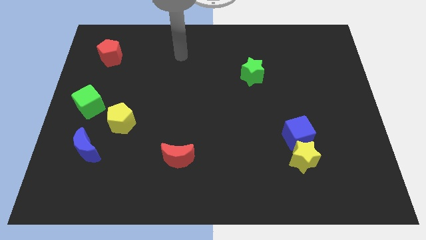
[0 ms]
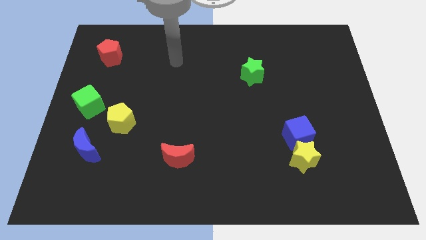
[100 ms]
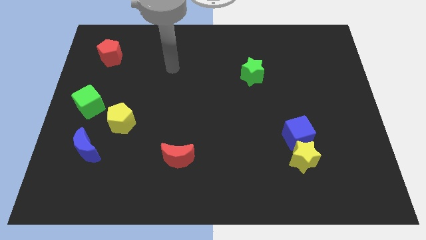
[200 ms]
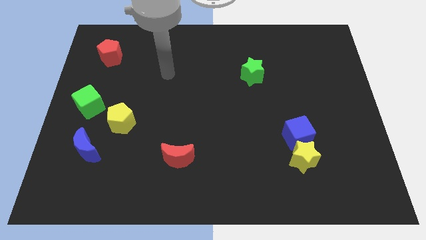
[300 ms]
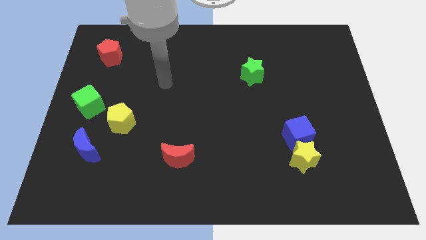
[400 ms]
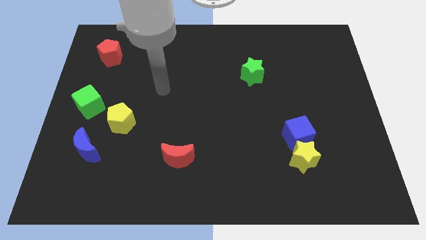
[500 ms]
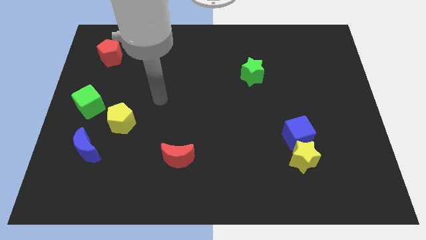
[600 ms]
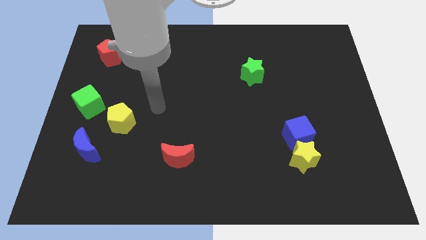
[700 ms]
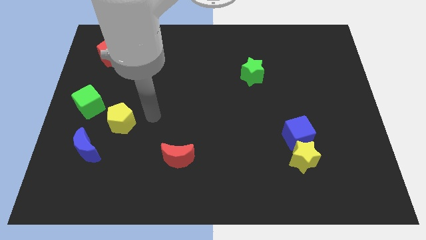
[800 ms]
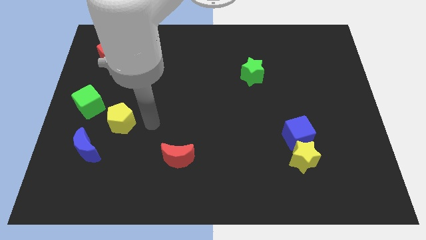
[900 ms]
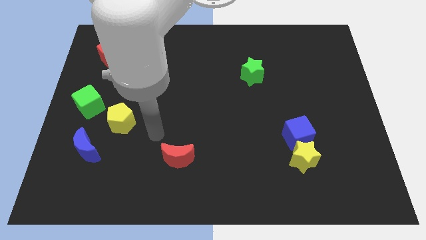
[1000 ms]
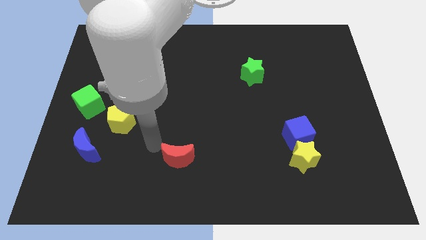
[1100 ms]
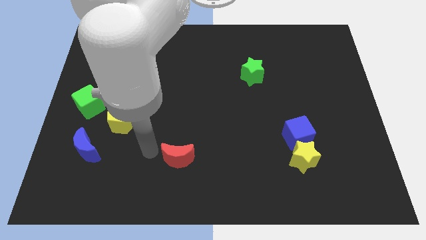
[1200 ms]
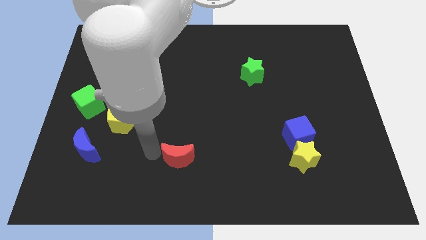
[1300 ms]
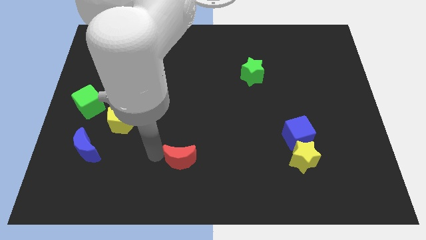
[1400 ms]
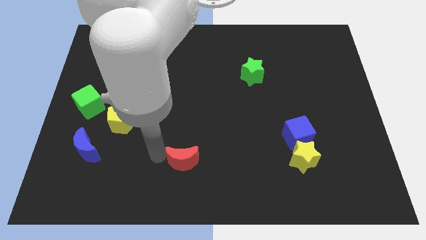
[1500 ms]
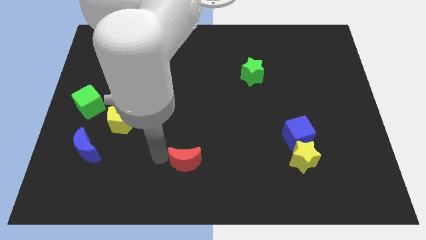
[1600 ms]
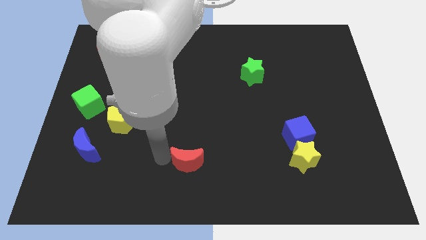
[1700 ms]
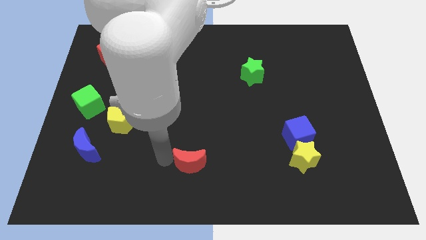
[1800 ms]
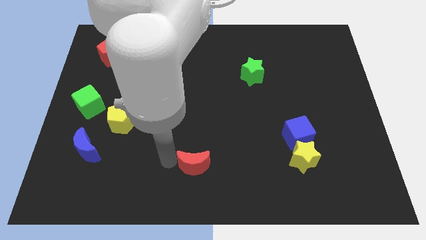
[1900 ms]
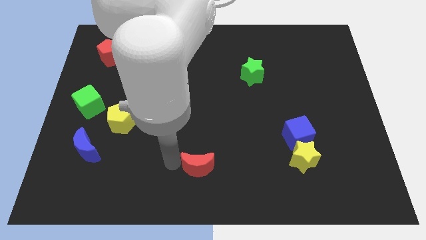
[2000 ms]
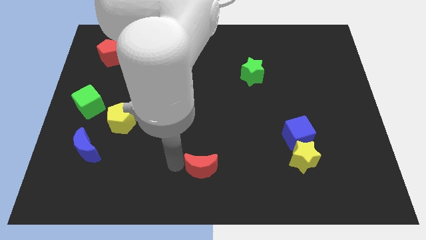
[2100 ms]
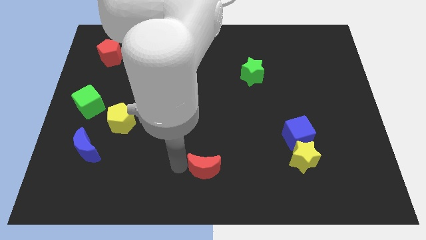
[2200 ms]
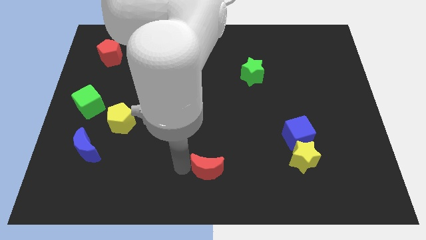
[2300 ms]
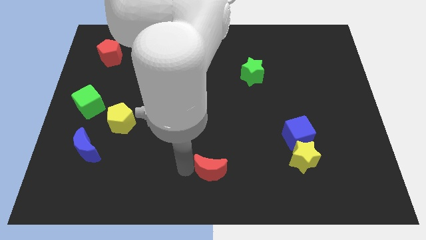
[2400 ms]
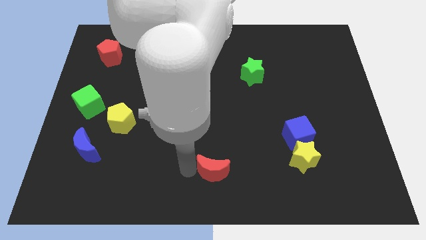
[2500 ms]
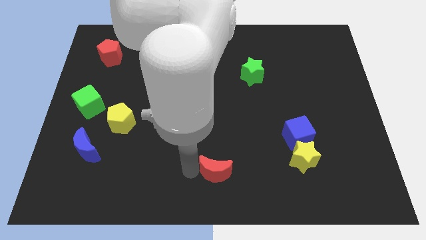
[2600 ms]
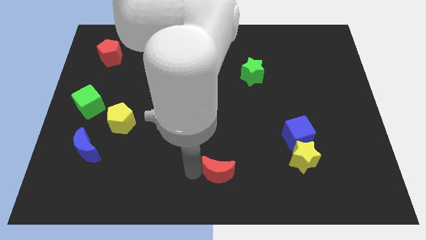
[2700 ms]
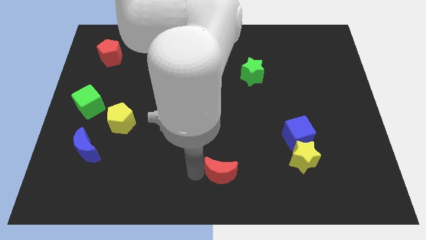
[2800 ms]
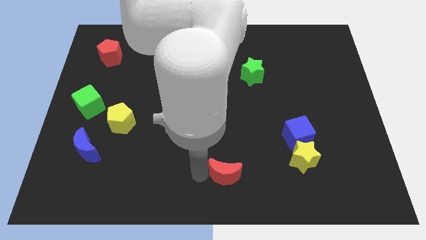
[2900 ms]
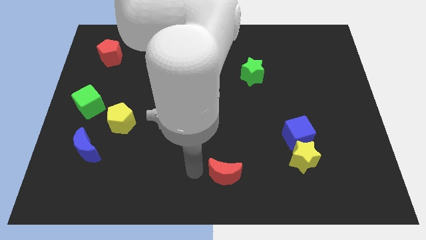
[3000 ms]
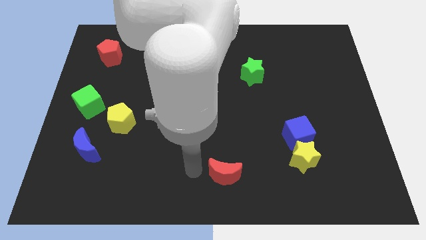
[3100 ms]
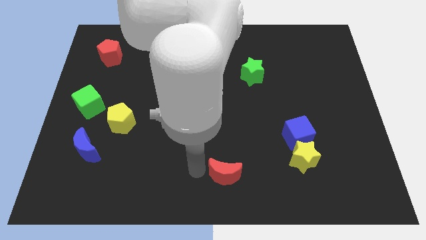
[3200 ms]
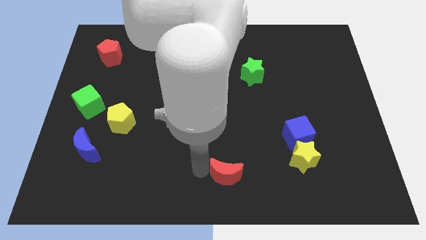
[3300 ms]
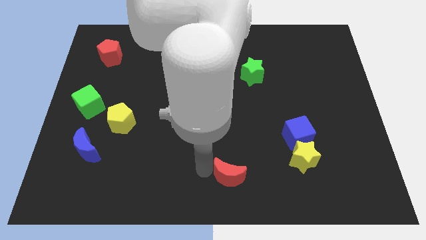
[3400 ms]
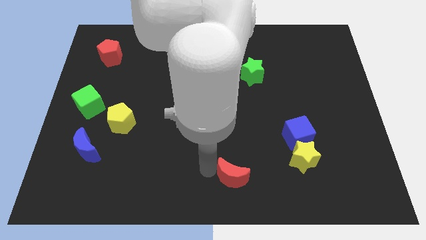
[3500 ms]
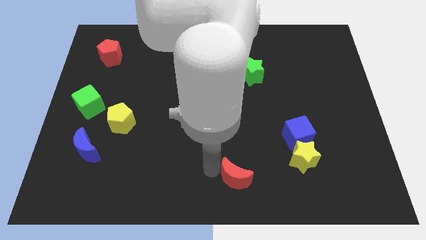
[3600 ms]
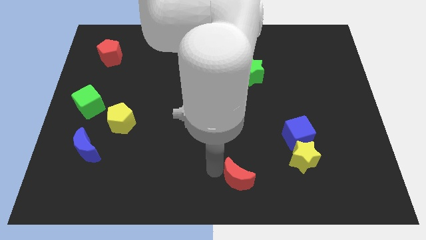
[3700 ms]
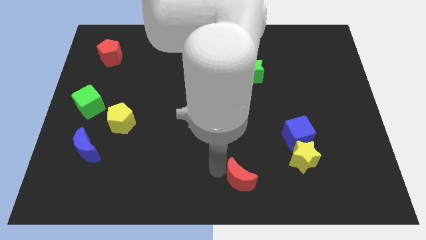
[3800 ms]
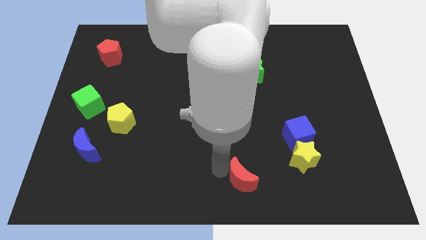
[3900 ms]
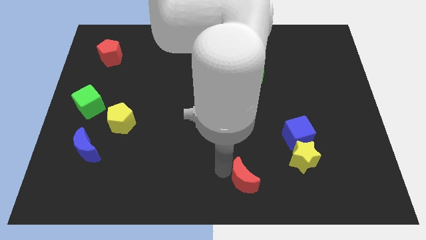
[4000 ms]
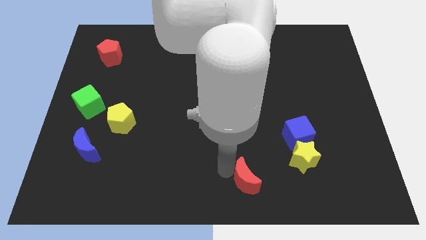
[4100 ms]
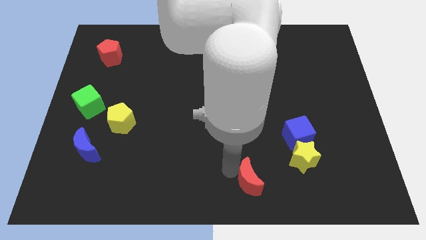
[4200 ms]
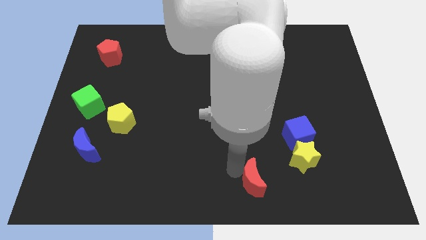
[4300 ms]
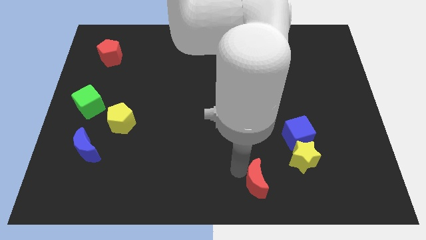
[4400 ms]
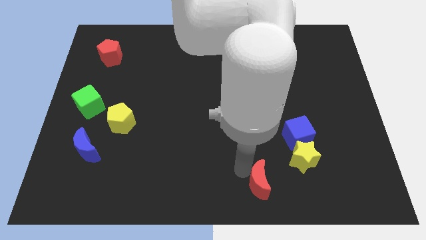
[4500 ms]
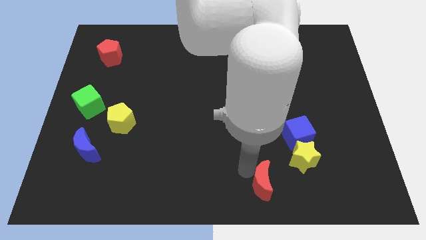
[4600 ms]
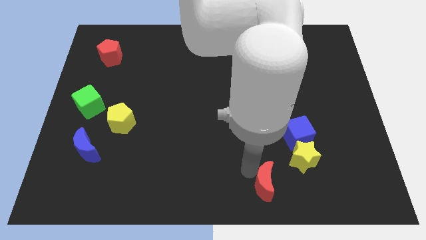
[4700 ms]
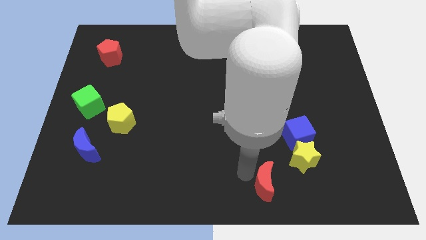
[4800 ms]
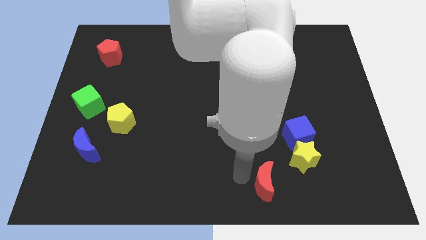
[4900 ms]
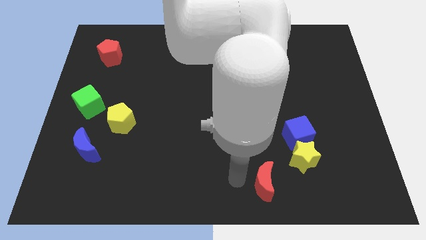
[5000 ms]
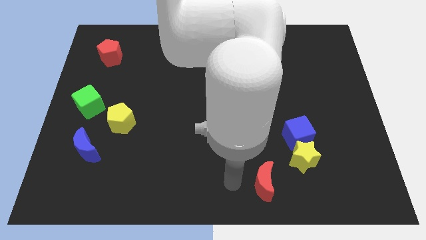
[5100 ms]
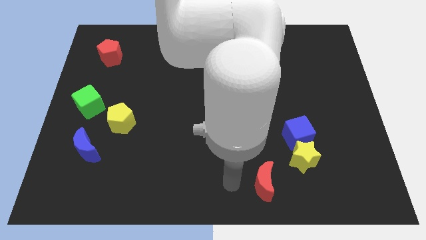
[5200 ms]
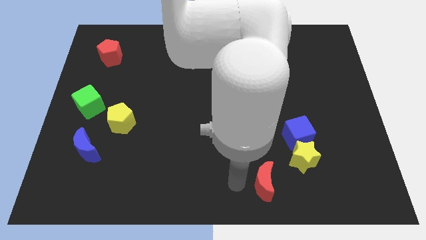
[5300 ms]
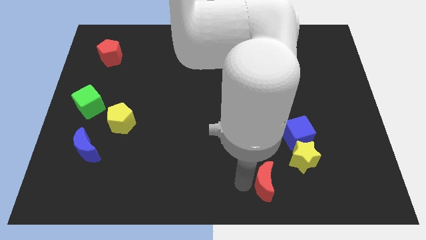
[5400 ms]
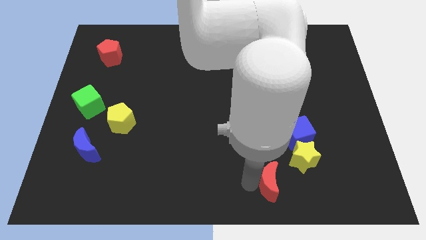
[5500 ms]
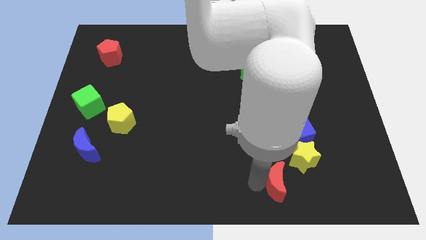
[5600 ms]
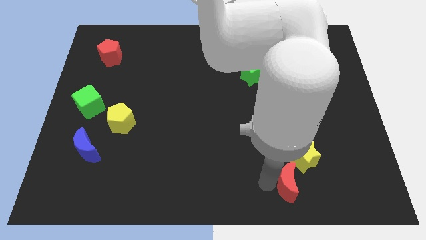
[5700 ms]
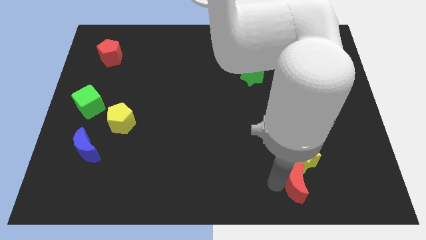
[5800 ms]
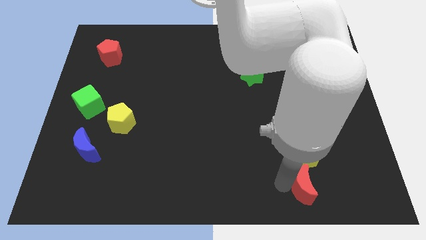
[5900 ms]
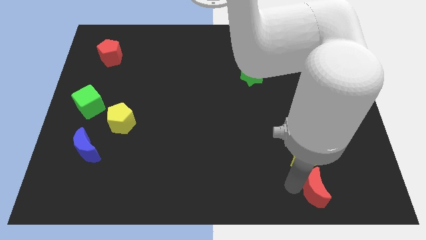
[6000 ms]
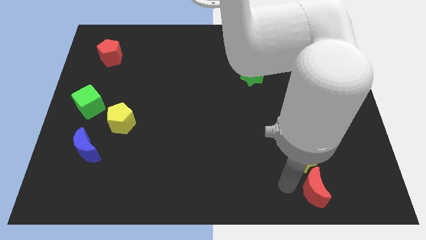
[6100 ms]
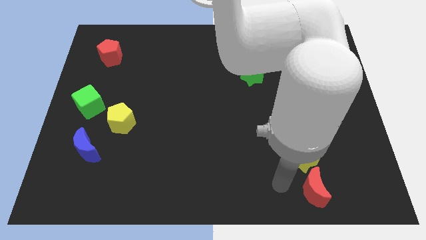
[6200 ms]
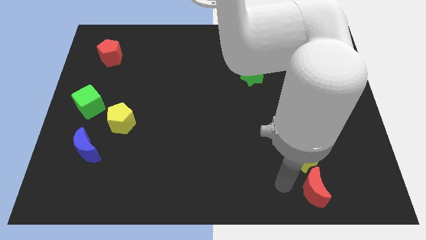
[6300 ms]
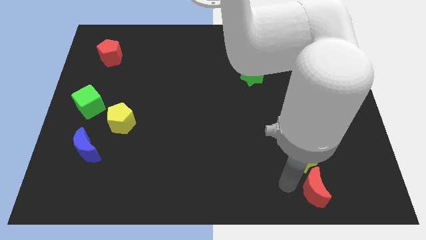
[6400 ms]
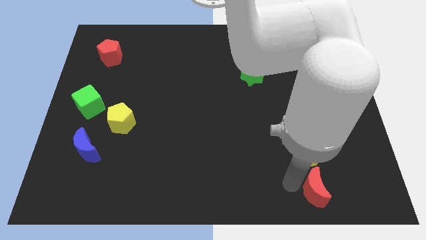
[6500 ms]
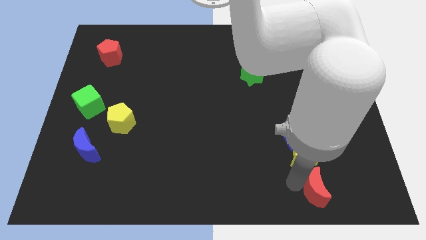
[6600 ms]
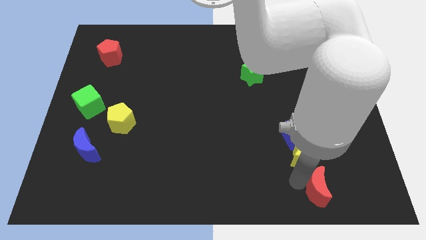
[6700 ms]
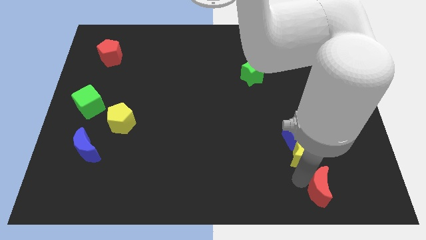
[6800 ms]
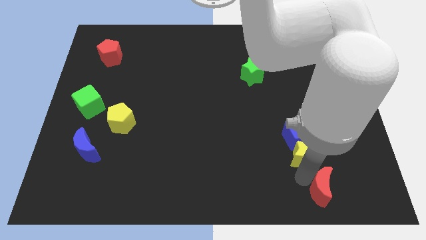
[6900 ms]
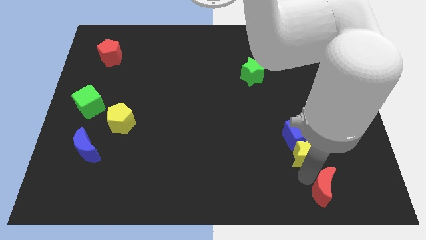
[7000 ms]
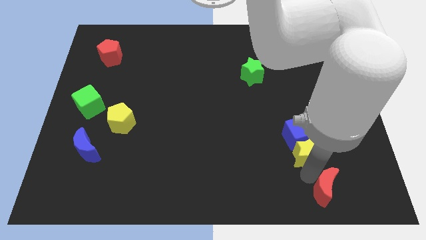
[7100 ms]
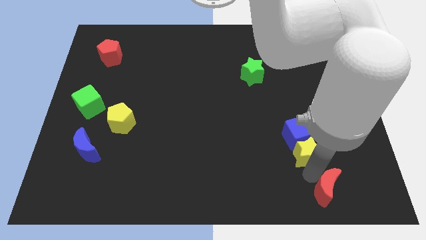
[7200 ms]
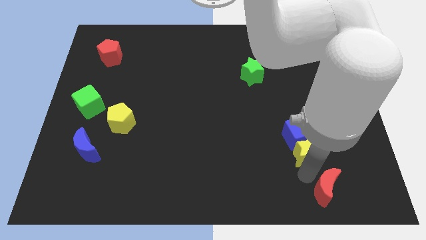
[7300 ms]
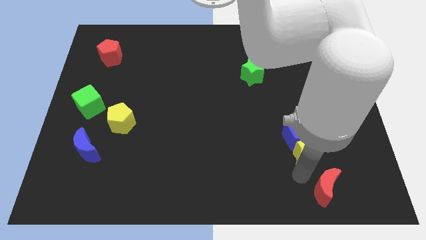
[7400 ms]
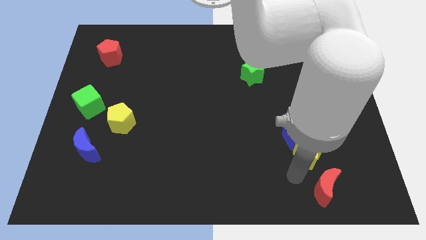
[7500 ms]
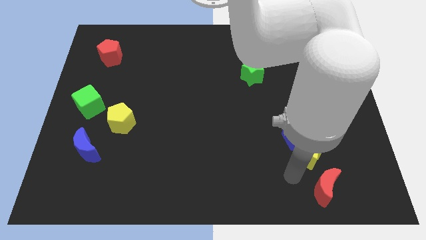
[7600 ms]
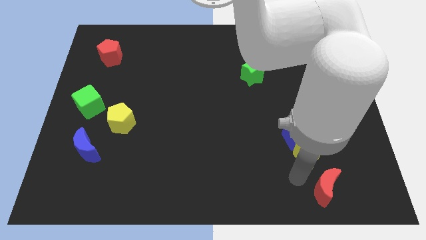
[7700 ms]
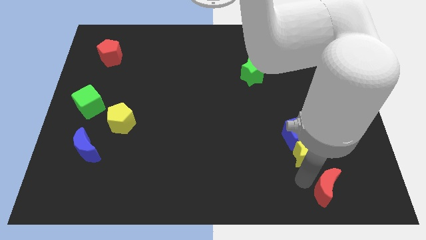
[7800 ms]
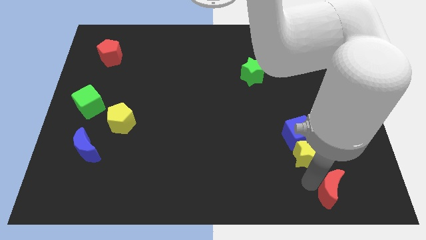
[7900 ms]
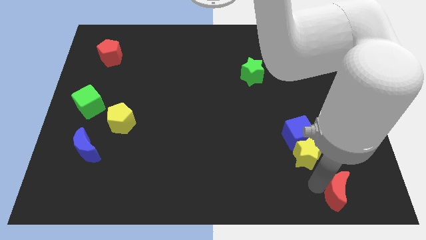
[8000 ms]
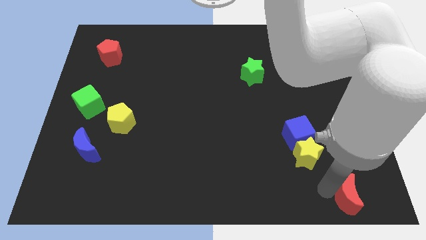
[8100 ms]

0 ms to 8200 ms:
put the red moon to the bottom right
